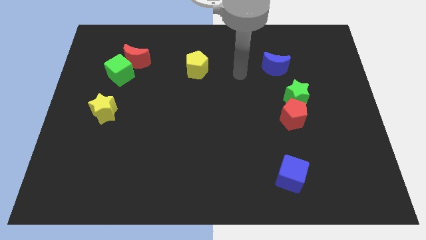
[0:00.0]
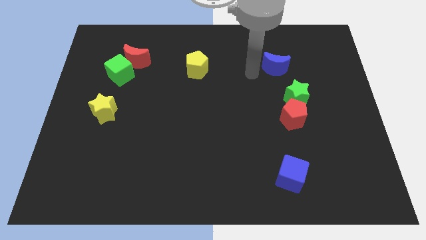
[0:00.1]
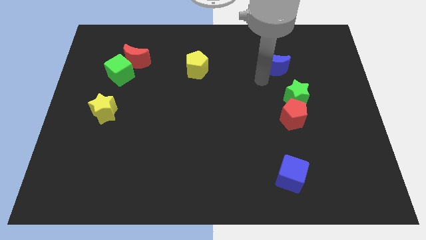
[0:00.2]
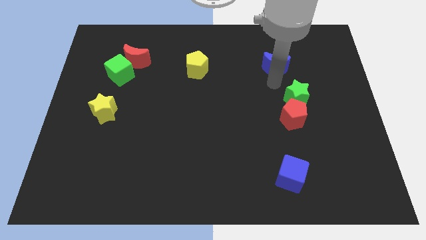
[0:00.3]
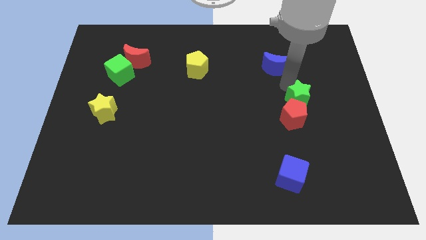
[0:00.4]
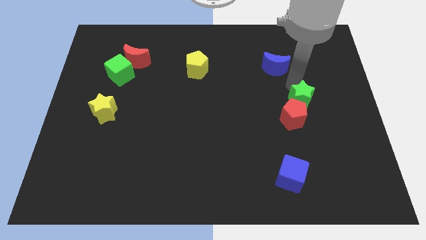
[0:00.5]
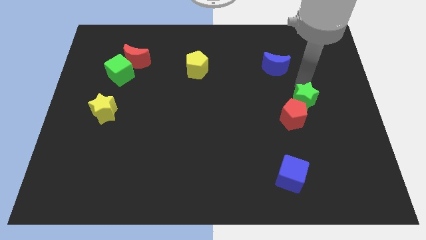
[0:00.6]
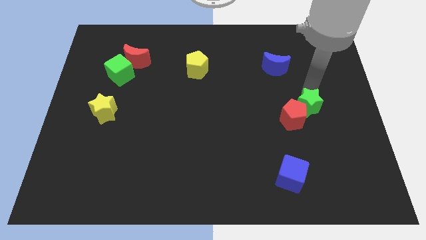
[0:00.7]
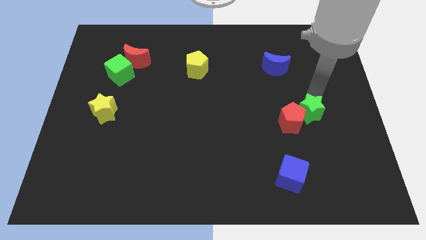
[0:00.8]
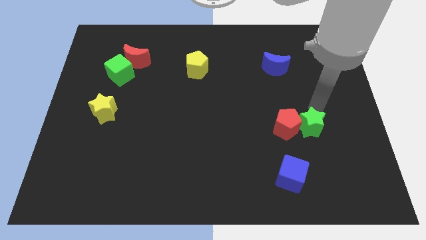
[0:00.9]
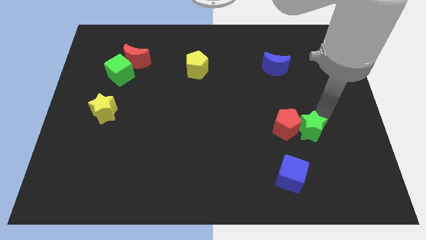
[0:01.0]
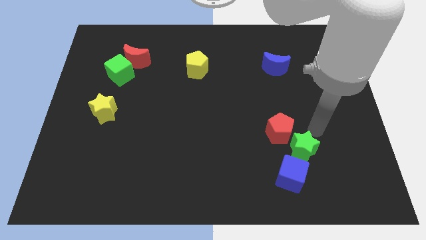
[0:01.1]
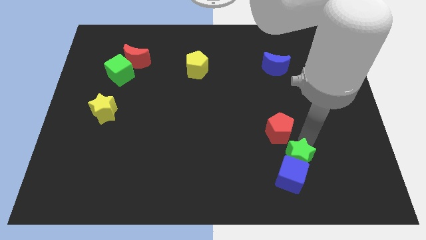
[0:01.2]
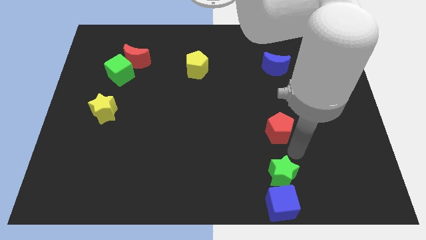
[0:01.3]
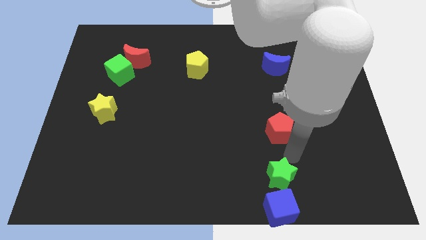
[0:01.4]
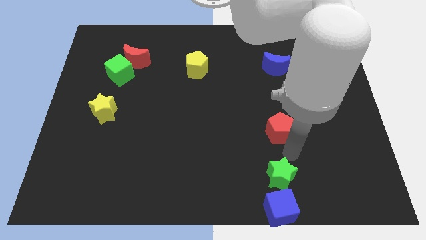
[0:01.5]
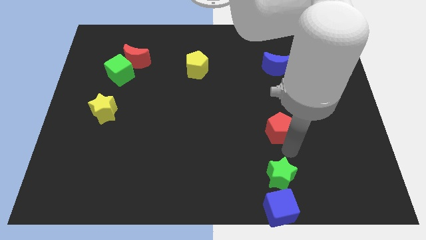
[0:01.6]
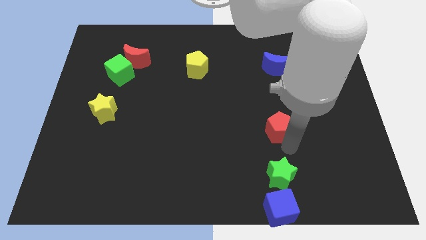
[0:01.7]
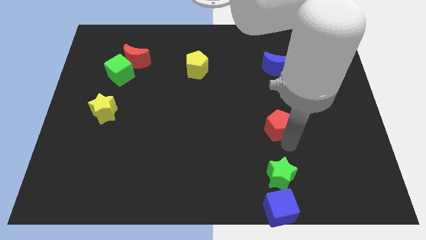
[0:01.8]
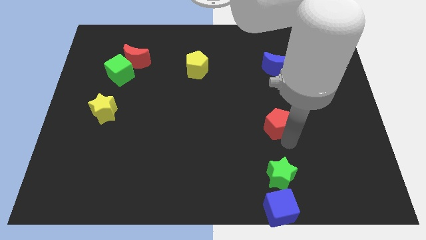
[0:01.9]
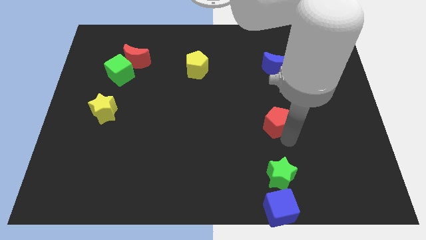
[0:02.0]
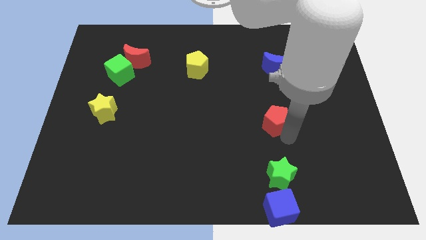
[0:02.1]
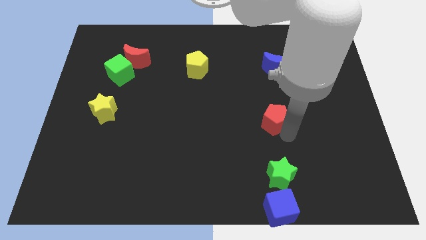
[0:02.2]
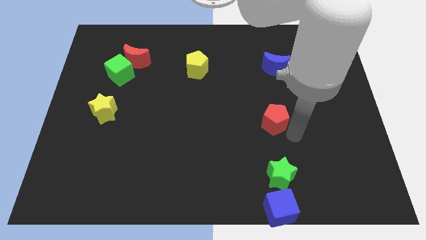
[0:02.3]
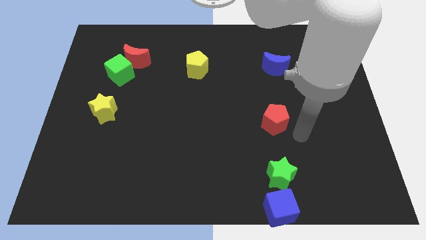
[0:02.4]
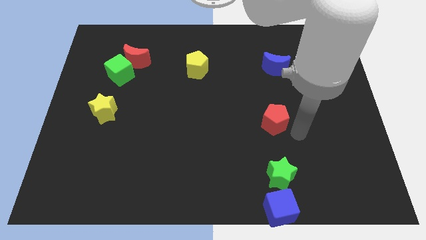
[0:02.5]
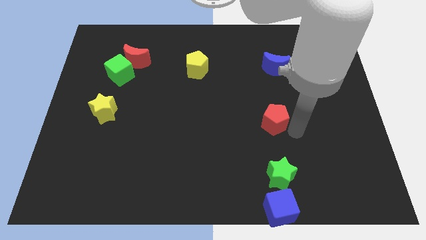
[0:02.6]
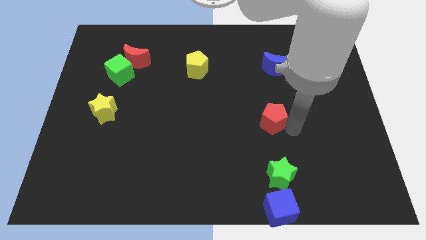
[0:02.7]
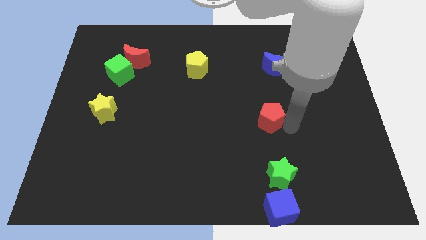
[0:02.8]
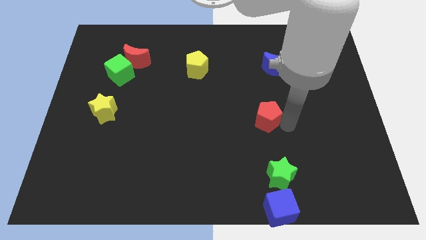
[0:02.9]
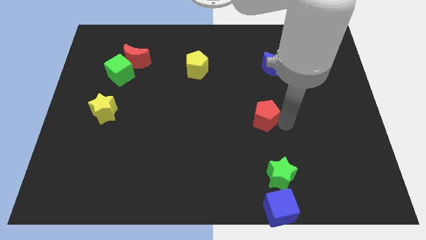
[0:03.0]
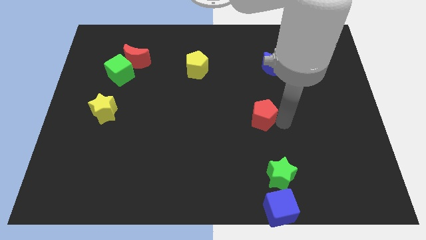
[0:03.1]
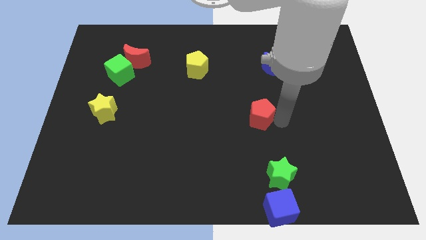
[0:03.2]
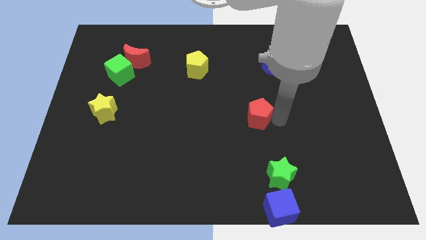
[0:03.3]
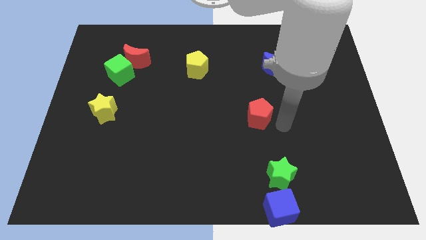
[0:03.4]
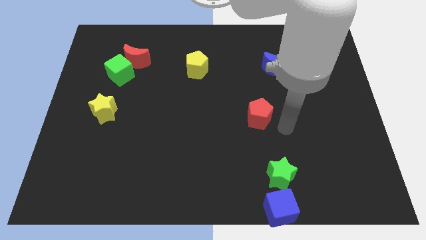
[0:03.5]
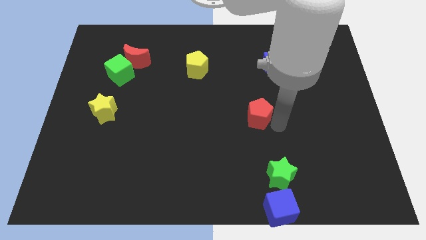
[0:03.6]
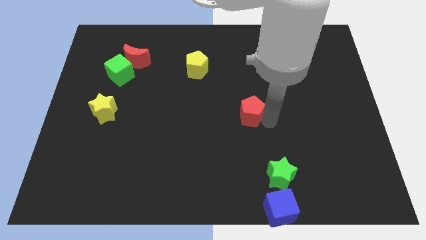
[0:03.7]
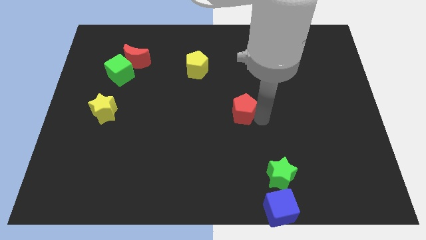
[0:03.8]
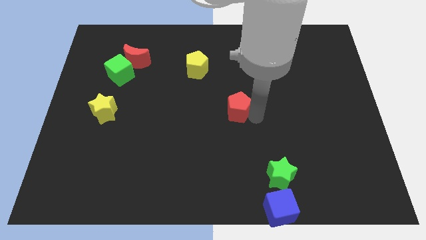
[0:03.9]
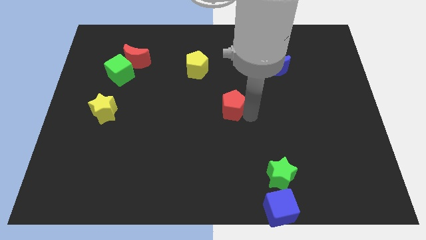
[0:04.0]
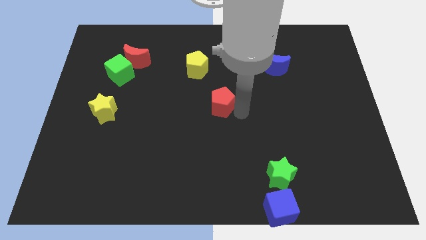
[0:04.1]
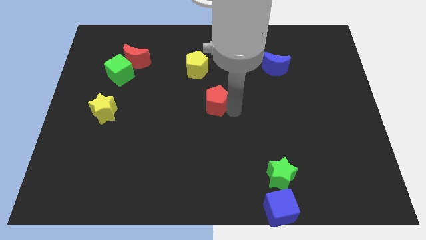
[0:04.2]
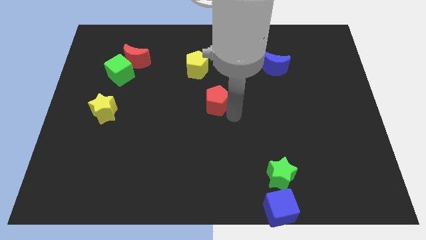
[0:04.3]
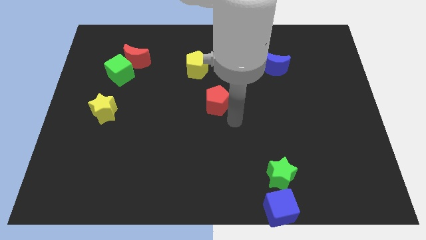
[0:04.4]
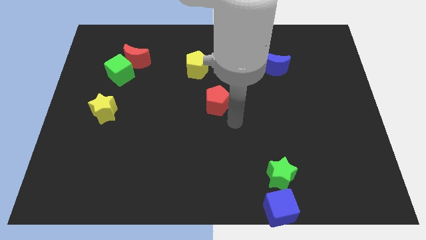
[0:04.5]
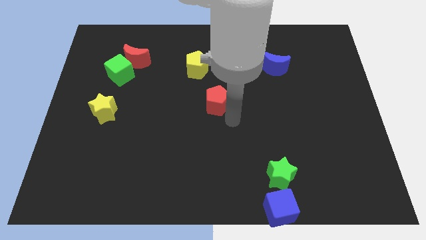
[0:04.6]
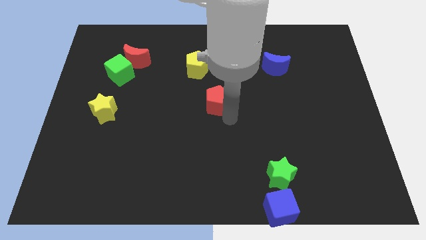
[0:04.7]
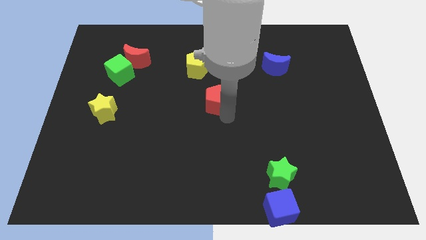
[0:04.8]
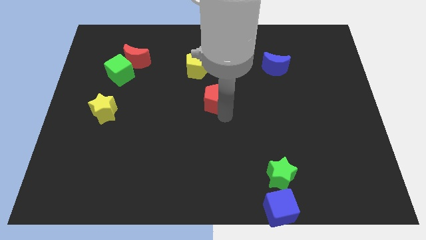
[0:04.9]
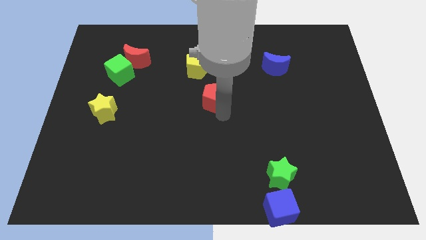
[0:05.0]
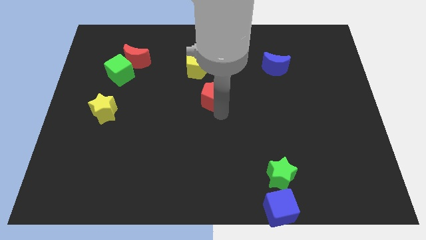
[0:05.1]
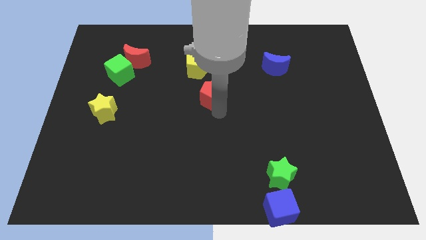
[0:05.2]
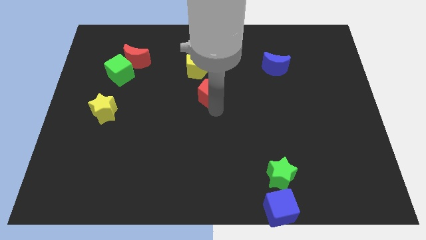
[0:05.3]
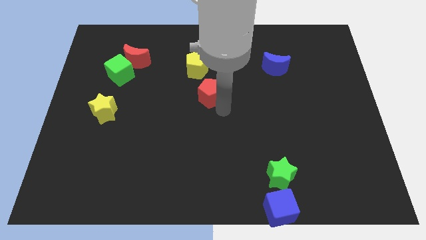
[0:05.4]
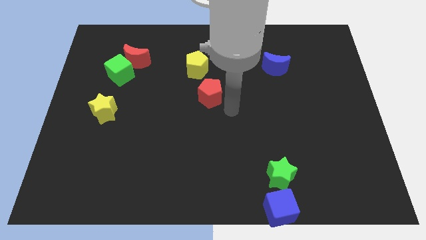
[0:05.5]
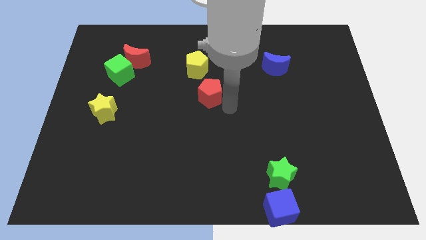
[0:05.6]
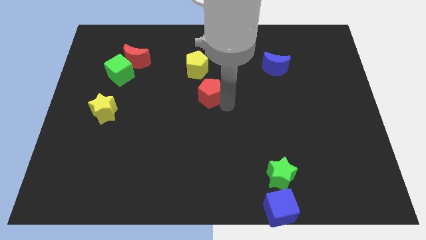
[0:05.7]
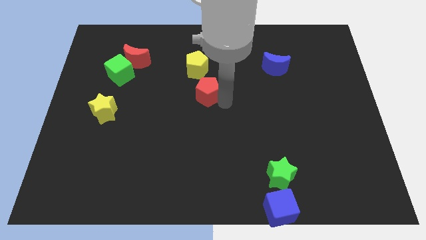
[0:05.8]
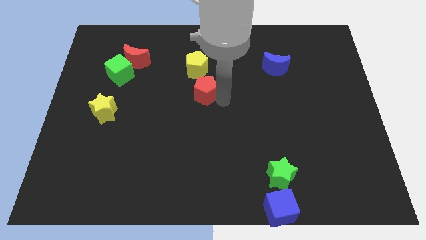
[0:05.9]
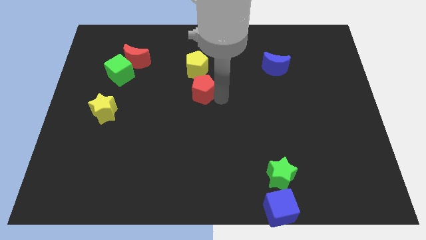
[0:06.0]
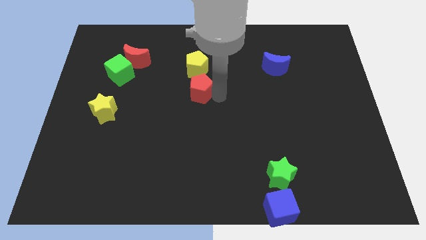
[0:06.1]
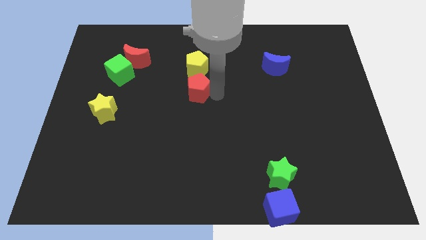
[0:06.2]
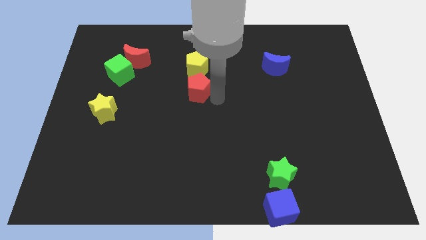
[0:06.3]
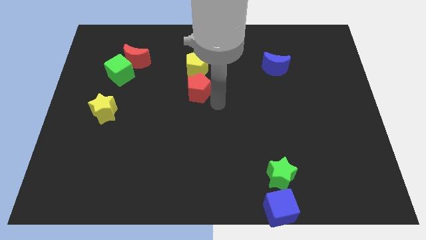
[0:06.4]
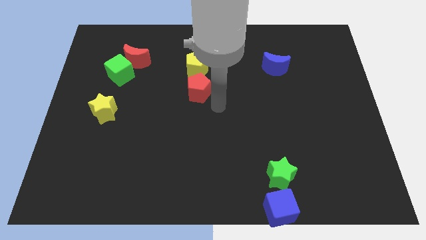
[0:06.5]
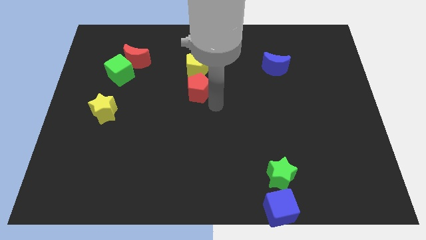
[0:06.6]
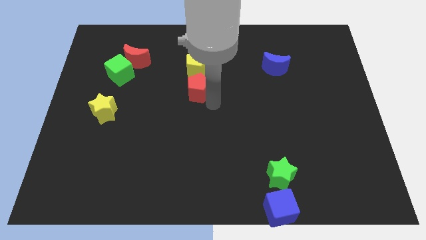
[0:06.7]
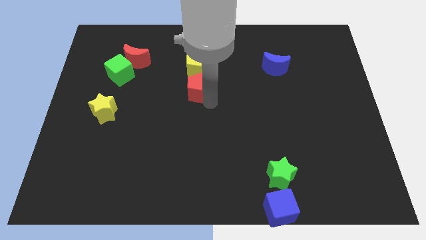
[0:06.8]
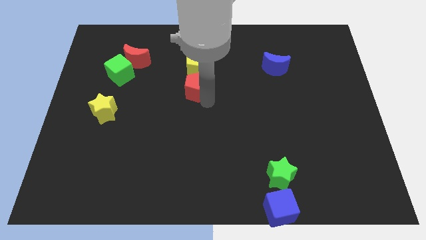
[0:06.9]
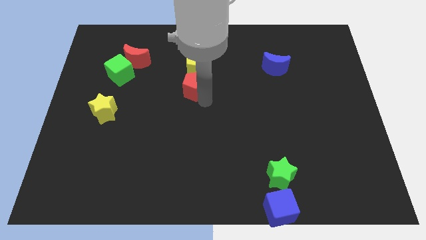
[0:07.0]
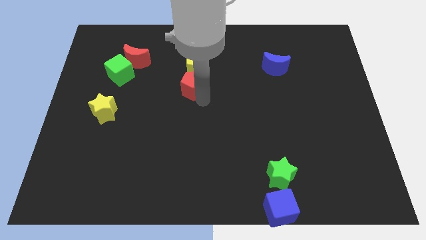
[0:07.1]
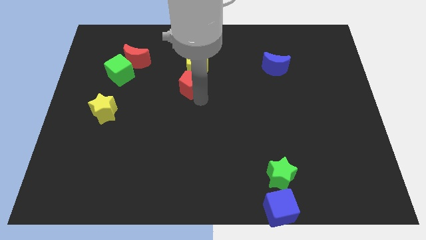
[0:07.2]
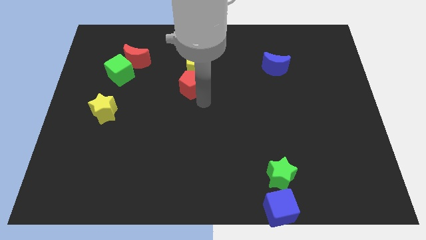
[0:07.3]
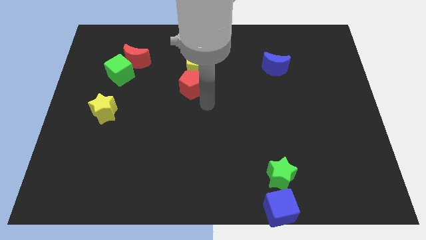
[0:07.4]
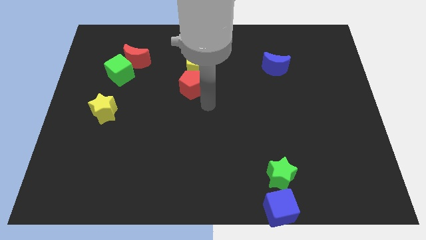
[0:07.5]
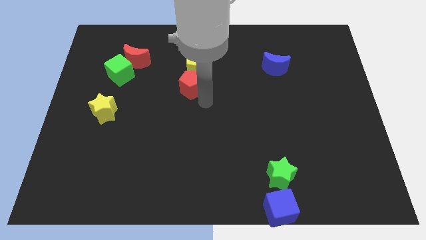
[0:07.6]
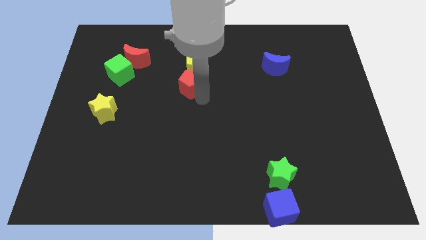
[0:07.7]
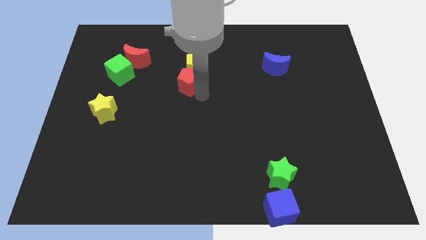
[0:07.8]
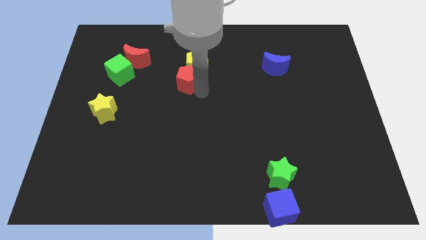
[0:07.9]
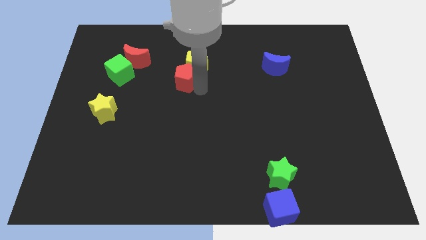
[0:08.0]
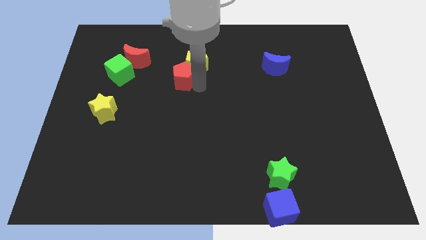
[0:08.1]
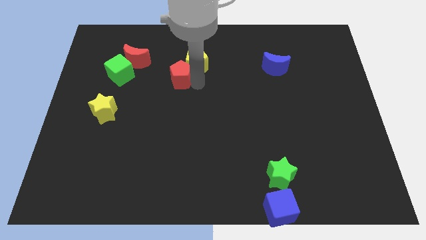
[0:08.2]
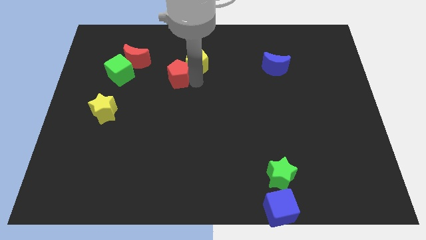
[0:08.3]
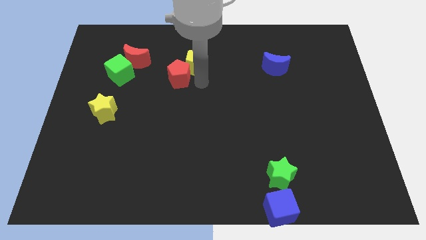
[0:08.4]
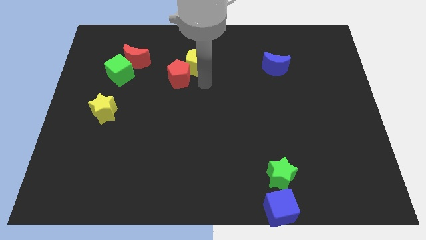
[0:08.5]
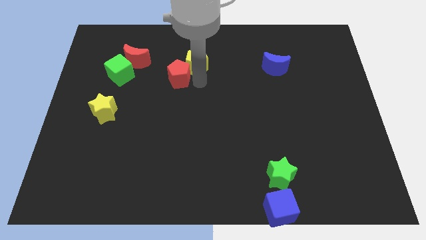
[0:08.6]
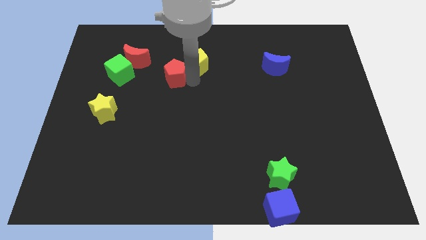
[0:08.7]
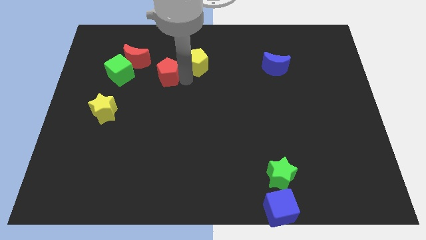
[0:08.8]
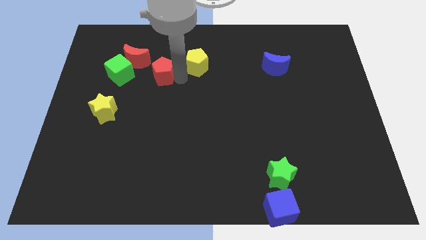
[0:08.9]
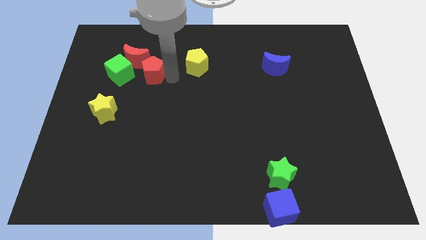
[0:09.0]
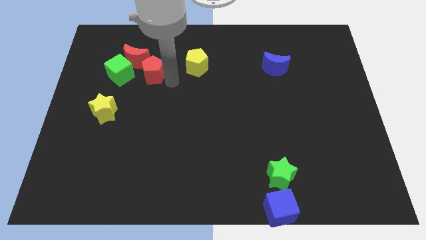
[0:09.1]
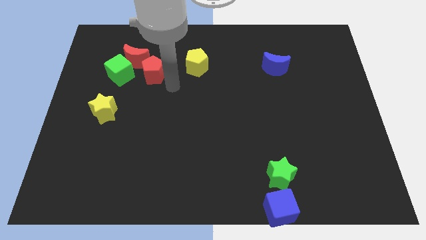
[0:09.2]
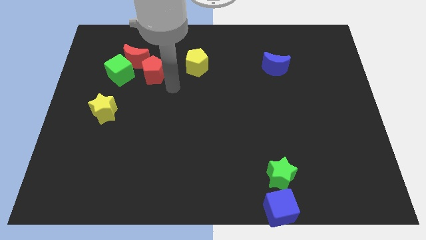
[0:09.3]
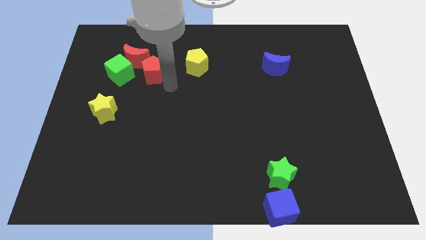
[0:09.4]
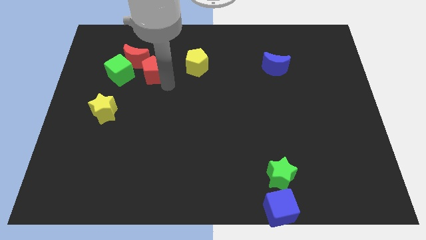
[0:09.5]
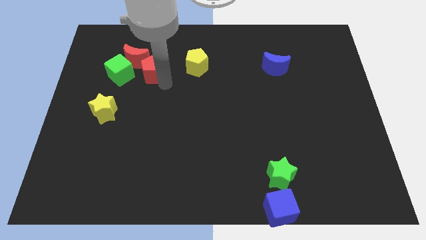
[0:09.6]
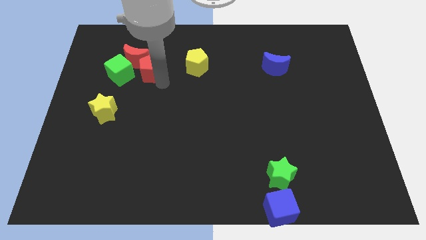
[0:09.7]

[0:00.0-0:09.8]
move the red pentagon next to the red moon
